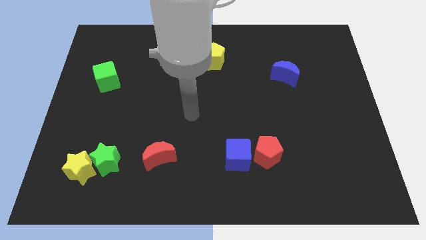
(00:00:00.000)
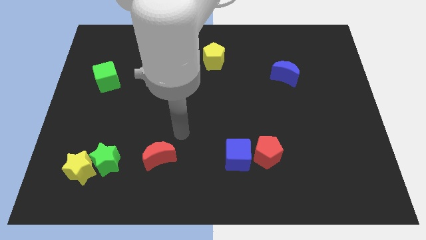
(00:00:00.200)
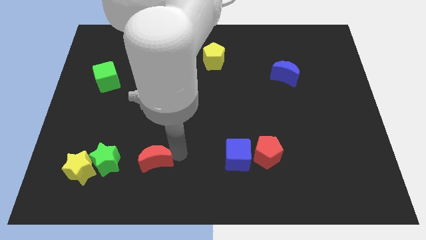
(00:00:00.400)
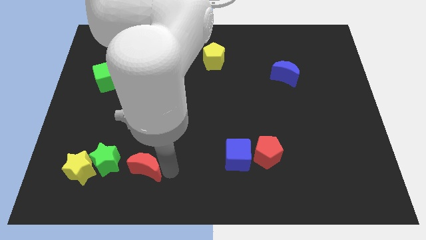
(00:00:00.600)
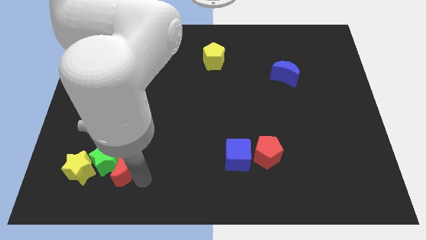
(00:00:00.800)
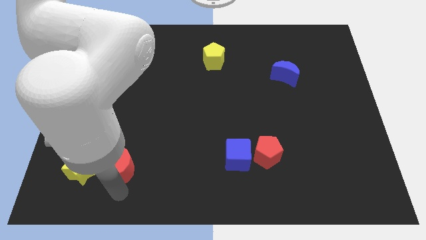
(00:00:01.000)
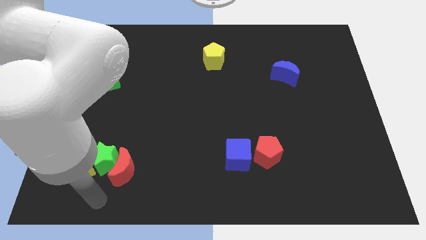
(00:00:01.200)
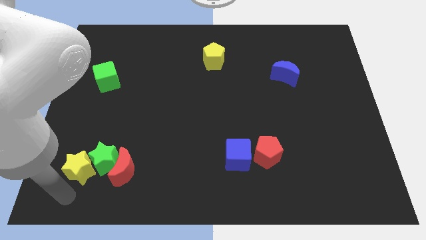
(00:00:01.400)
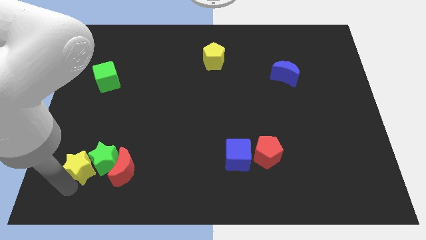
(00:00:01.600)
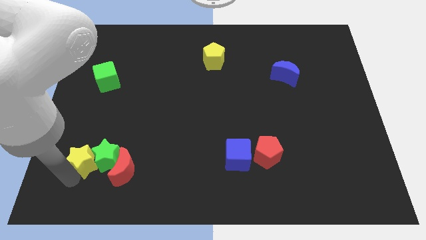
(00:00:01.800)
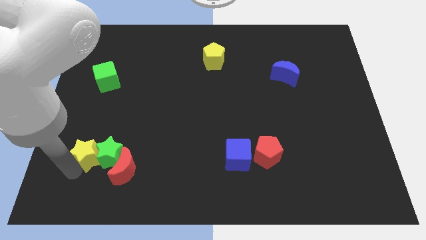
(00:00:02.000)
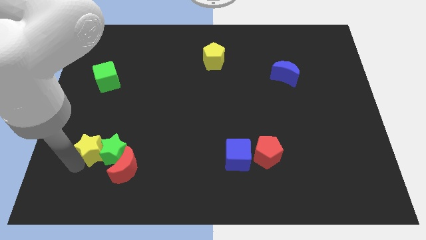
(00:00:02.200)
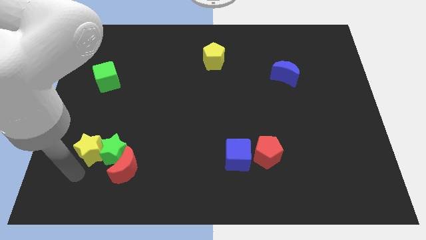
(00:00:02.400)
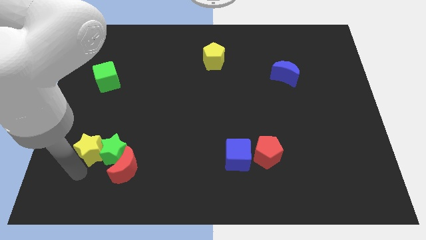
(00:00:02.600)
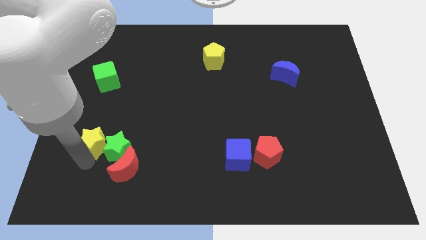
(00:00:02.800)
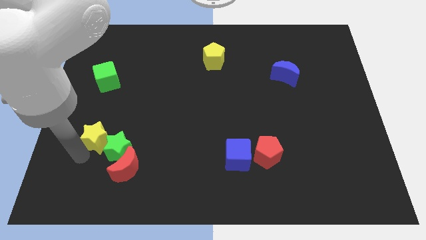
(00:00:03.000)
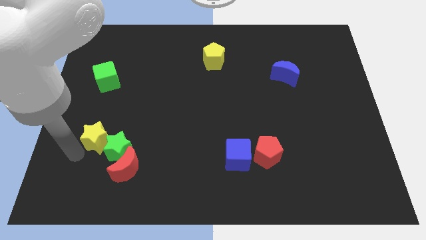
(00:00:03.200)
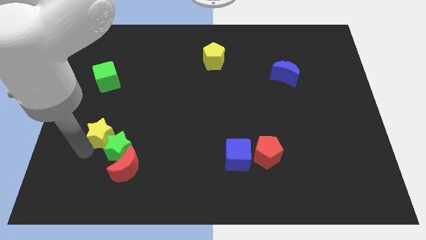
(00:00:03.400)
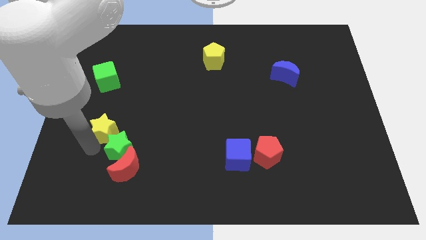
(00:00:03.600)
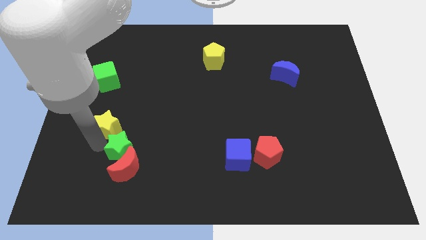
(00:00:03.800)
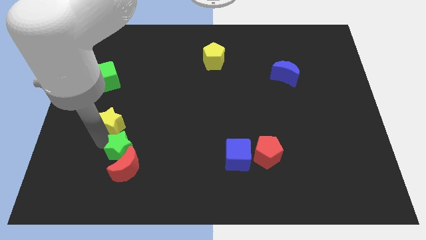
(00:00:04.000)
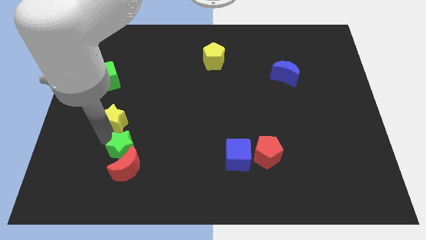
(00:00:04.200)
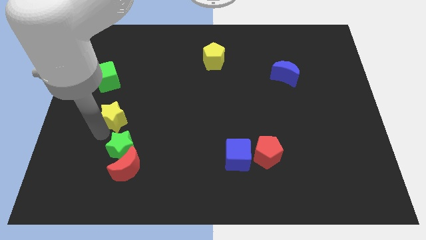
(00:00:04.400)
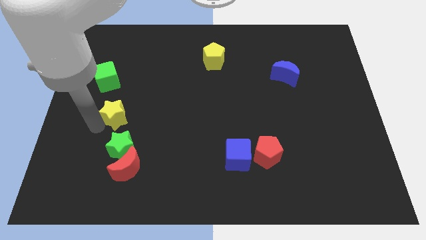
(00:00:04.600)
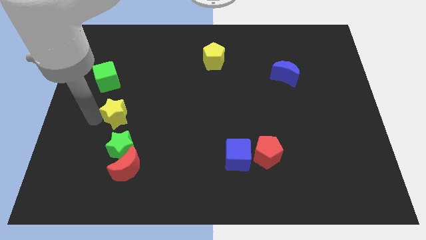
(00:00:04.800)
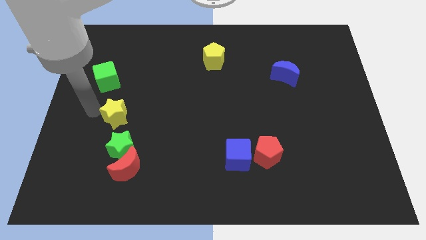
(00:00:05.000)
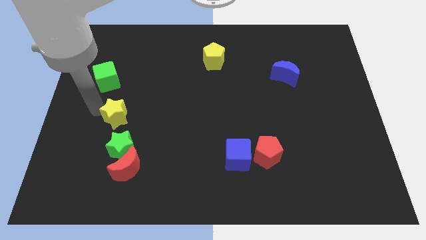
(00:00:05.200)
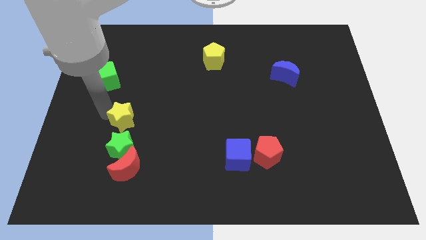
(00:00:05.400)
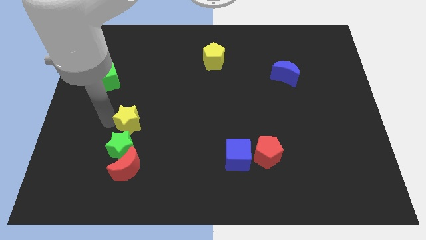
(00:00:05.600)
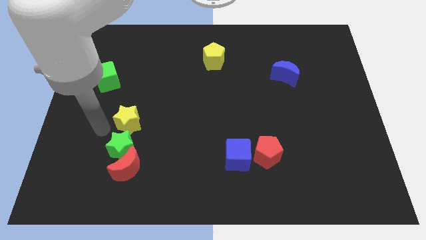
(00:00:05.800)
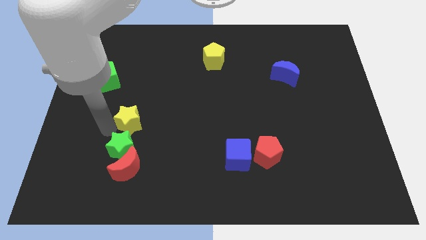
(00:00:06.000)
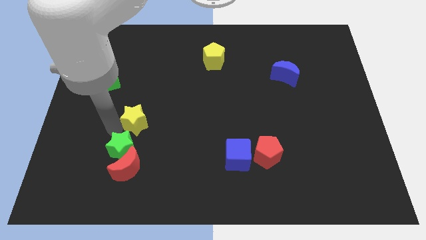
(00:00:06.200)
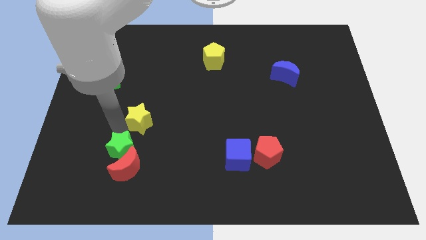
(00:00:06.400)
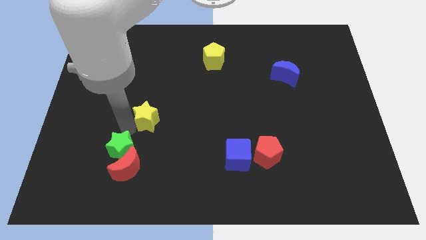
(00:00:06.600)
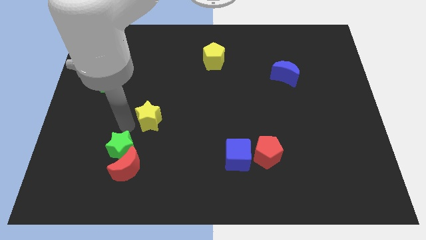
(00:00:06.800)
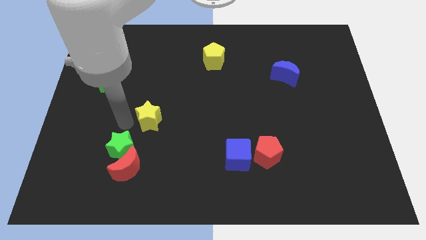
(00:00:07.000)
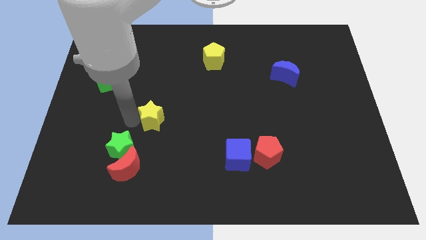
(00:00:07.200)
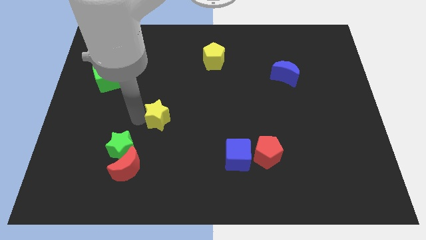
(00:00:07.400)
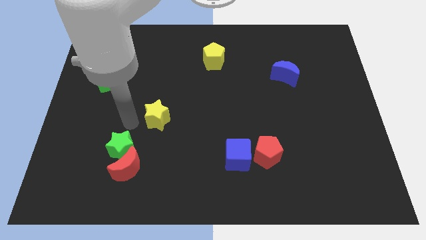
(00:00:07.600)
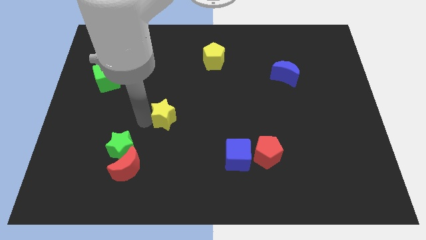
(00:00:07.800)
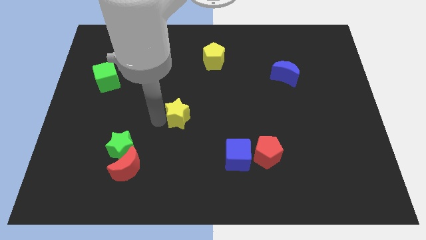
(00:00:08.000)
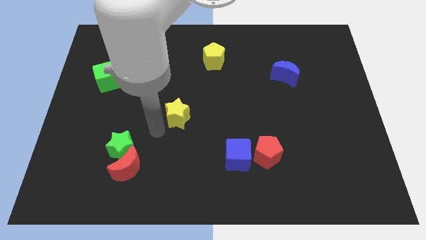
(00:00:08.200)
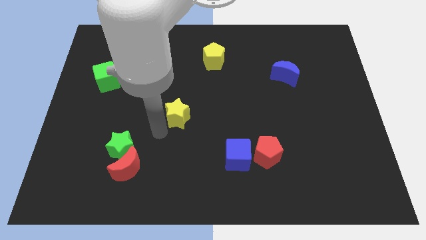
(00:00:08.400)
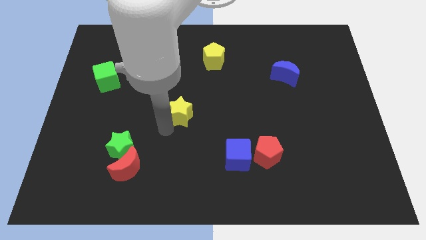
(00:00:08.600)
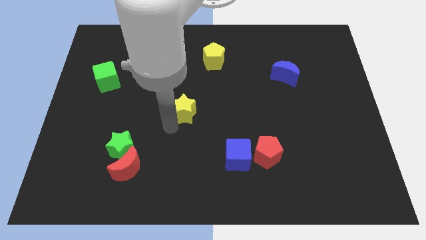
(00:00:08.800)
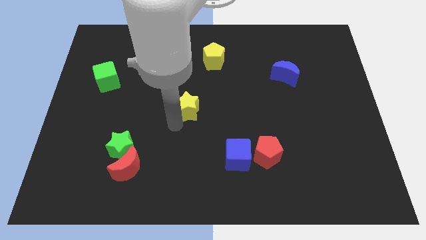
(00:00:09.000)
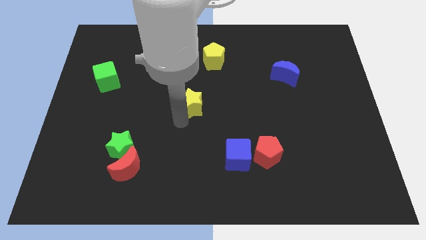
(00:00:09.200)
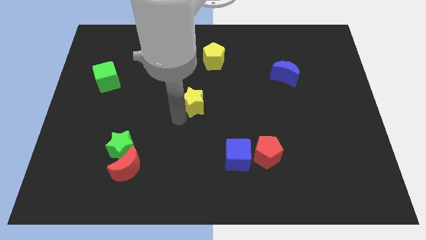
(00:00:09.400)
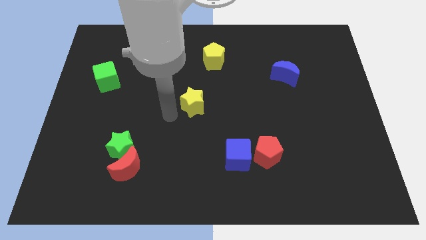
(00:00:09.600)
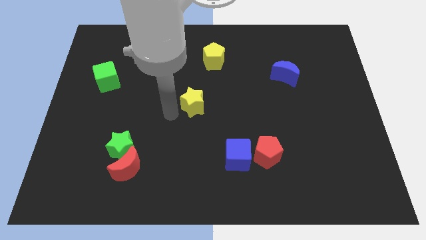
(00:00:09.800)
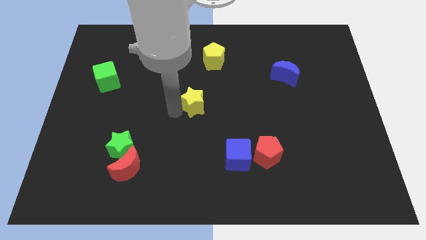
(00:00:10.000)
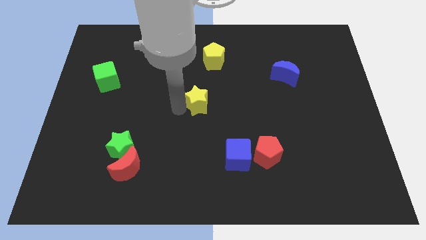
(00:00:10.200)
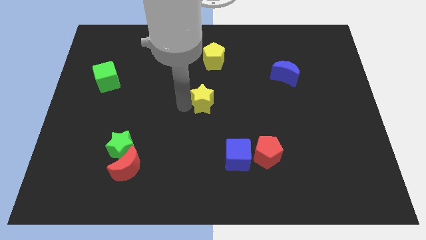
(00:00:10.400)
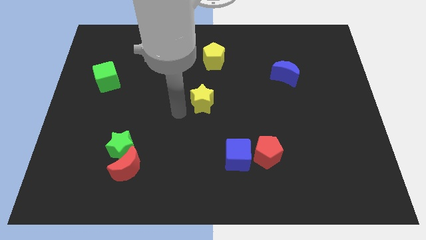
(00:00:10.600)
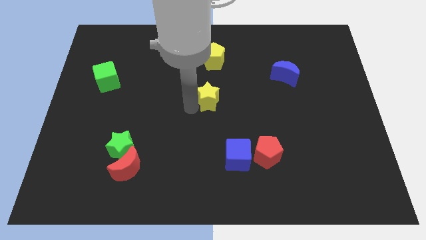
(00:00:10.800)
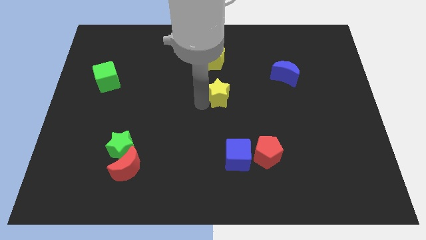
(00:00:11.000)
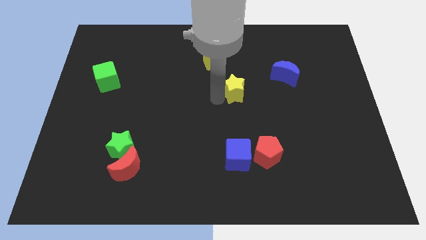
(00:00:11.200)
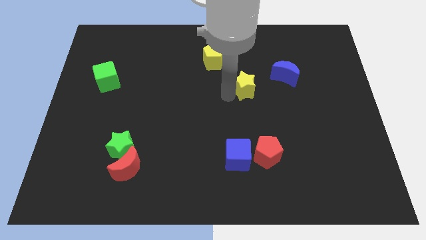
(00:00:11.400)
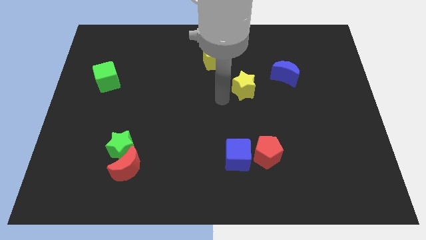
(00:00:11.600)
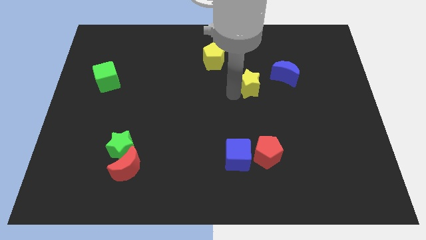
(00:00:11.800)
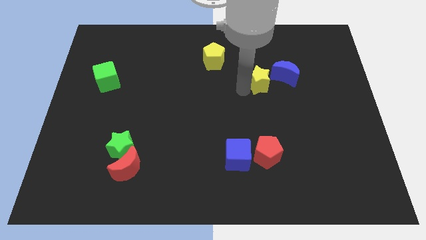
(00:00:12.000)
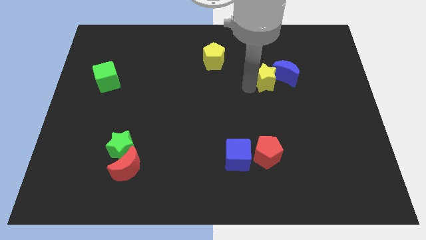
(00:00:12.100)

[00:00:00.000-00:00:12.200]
move the yellow star next to the blue moon
